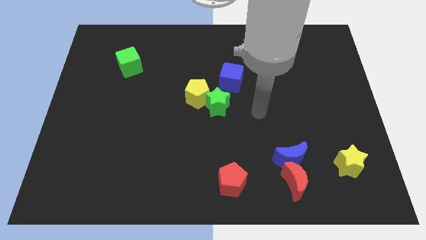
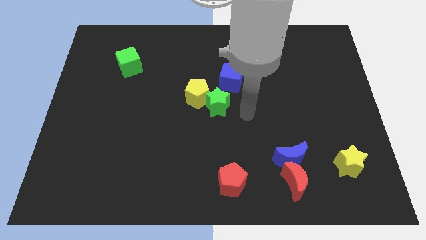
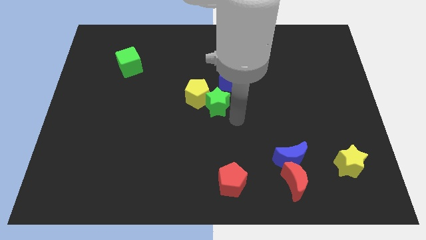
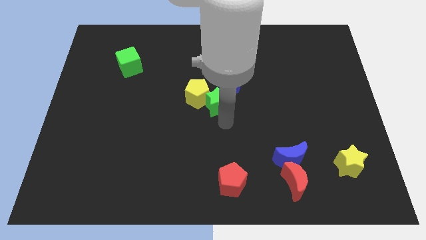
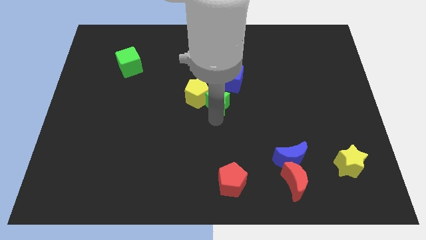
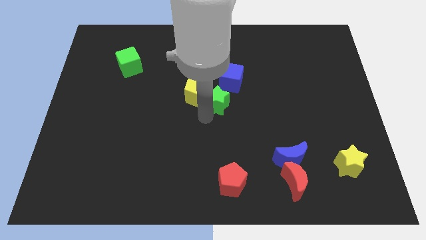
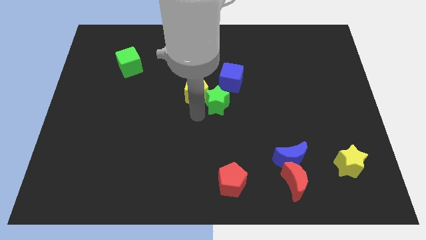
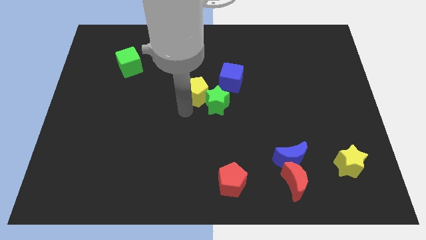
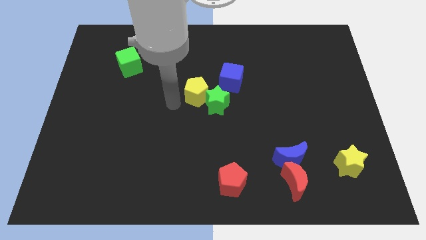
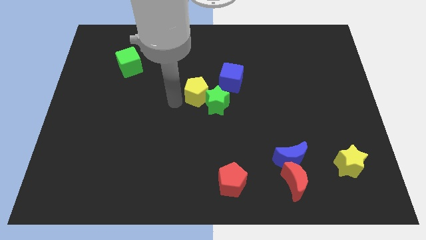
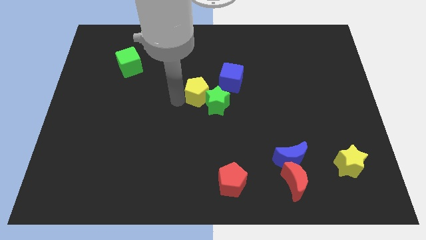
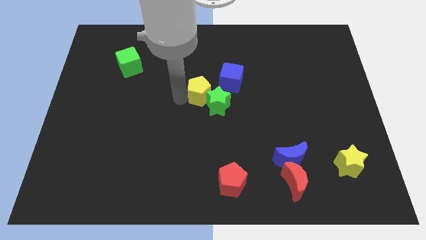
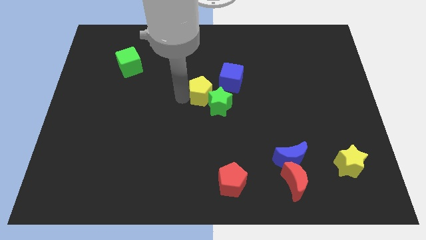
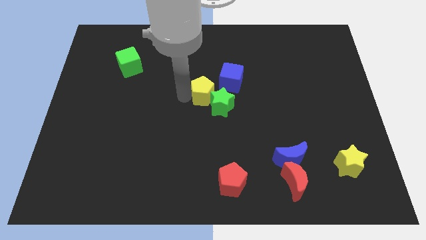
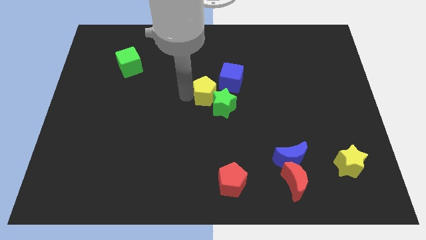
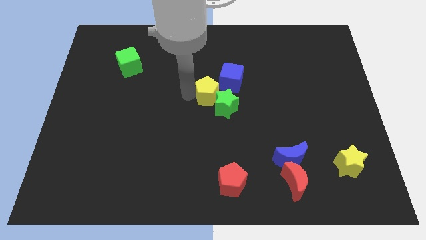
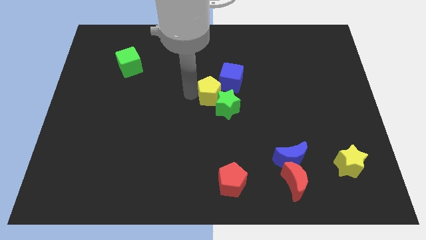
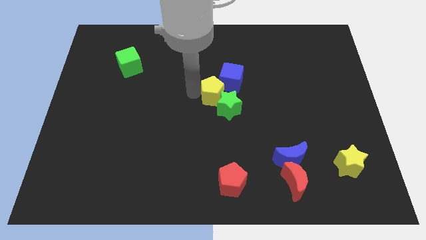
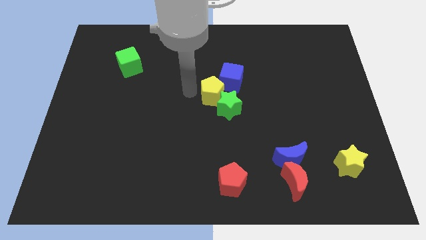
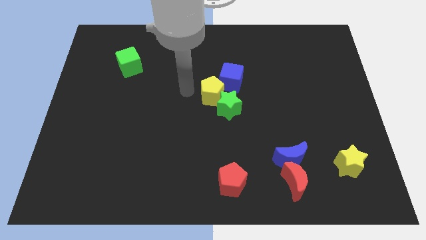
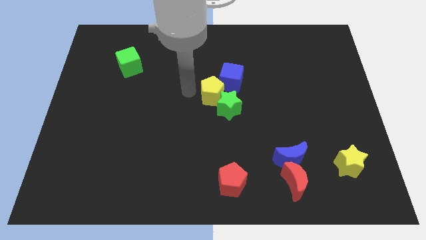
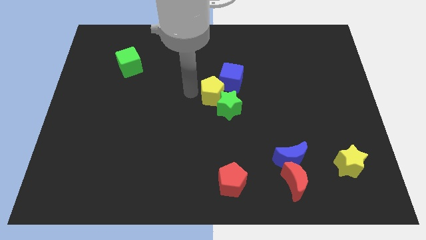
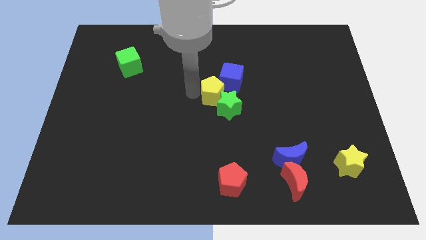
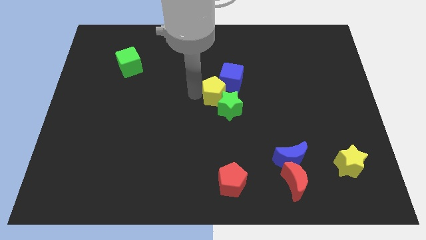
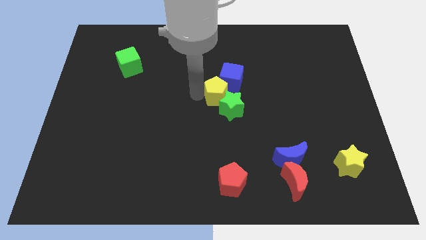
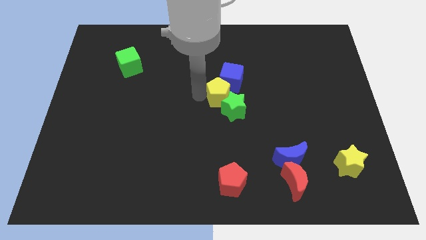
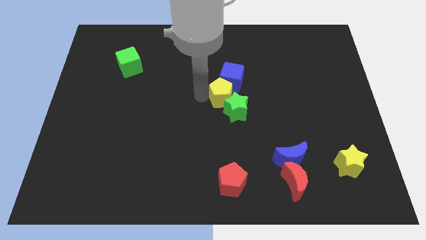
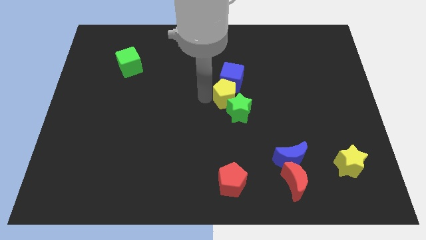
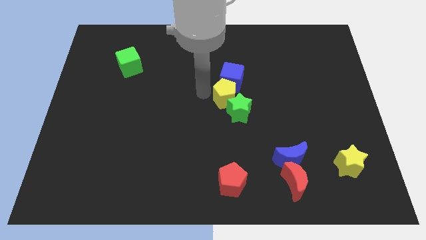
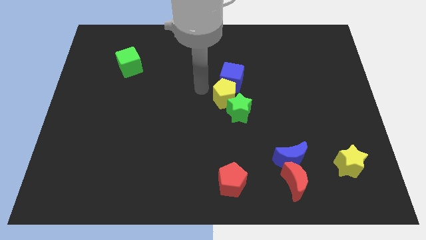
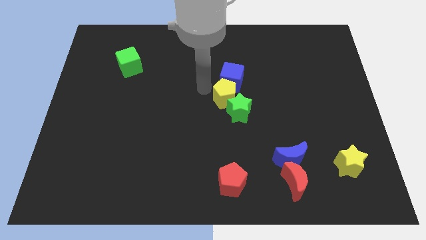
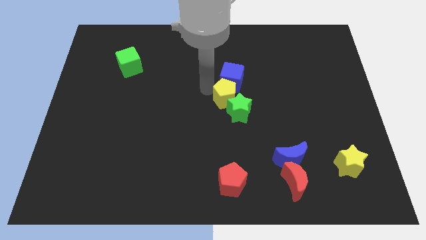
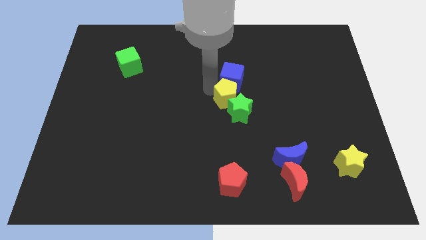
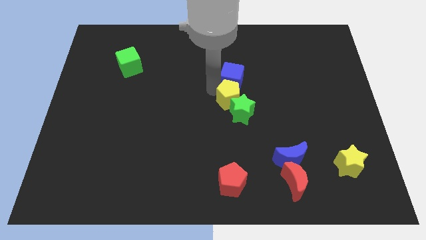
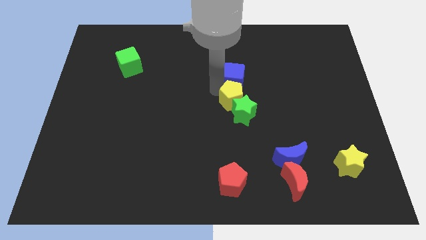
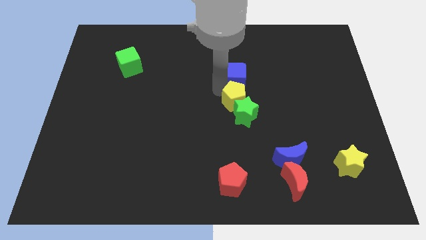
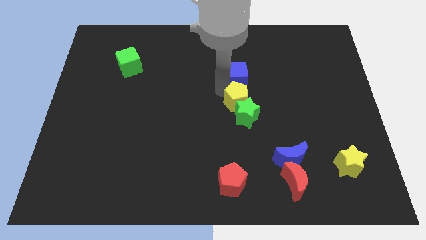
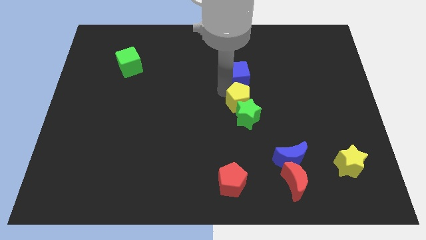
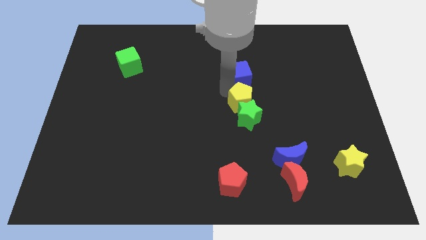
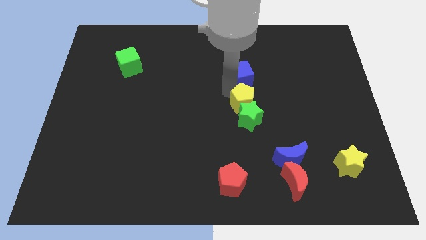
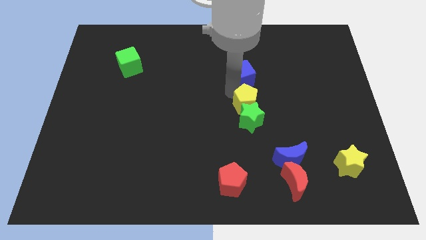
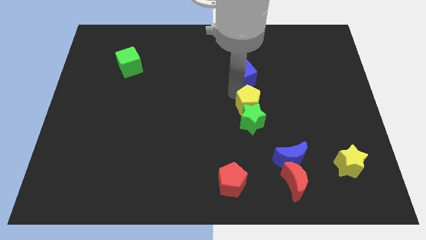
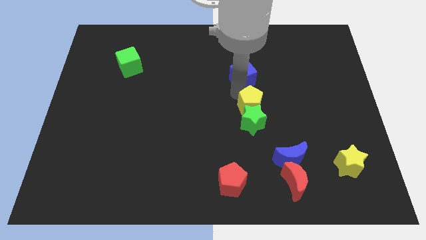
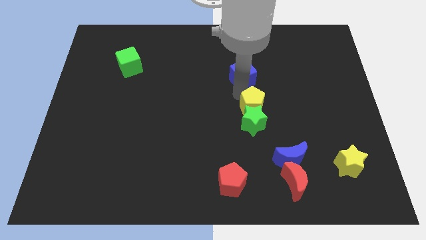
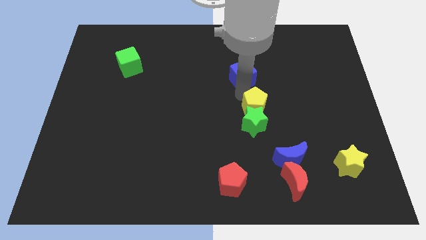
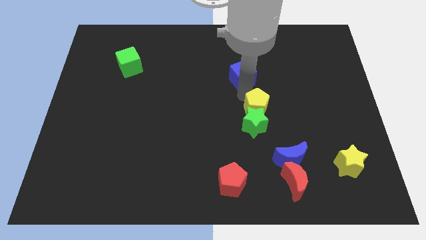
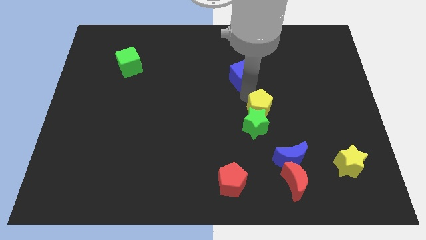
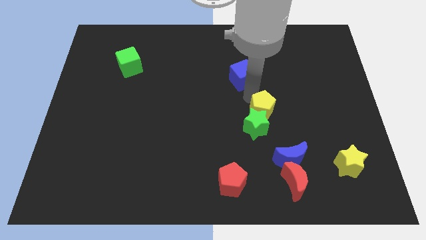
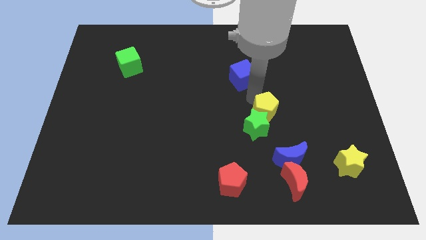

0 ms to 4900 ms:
push the yellow pentagon to the top of the blue moon

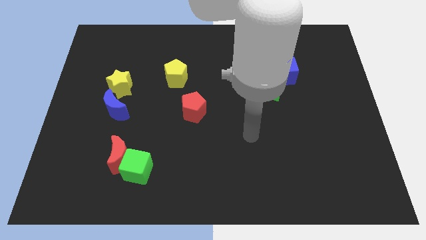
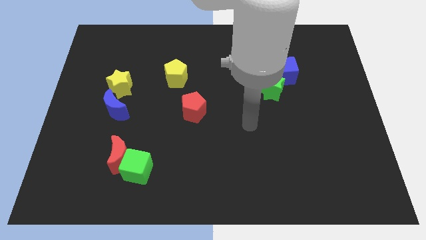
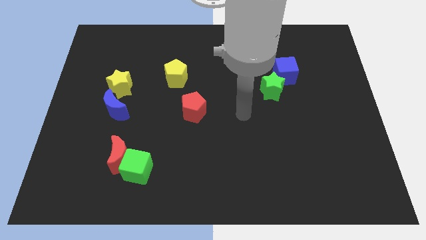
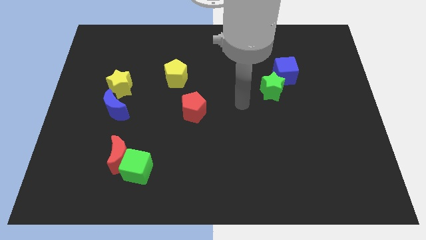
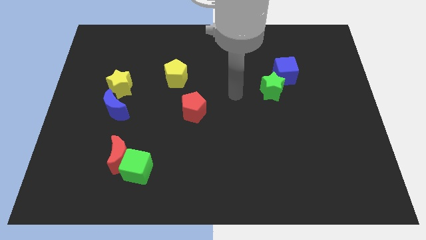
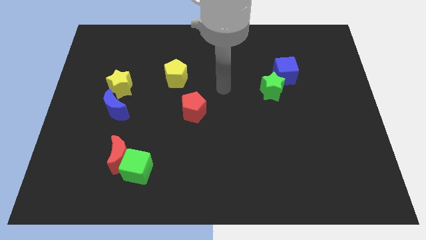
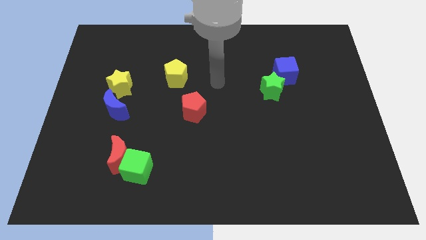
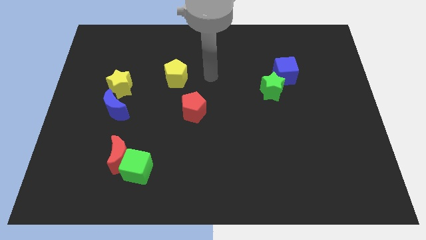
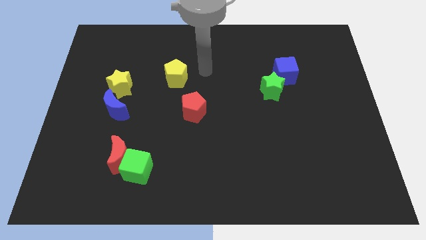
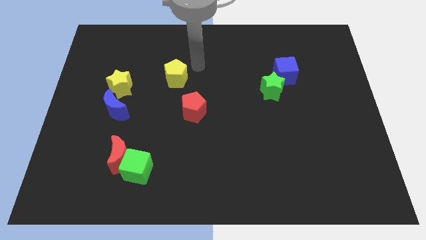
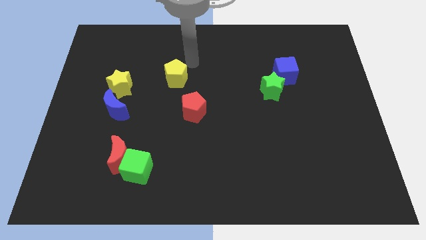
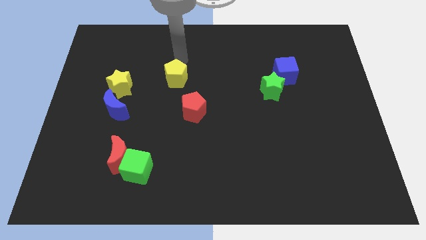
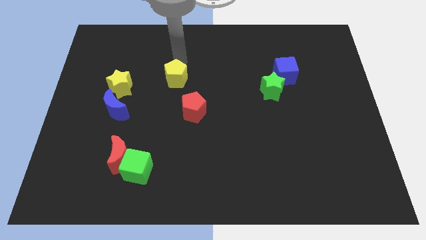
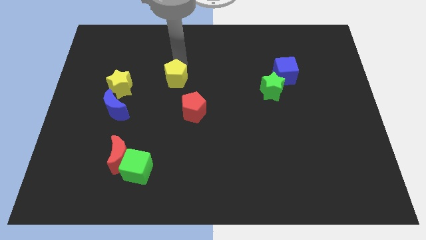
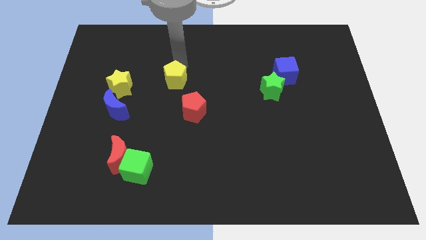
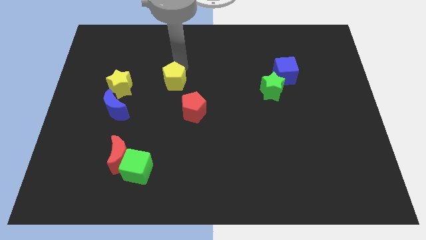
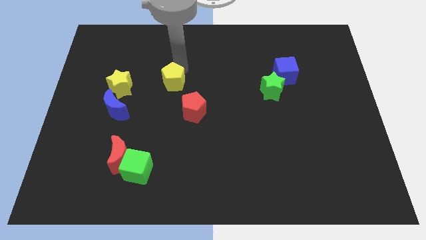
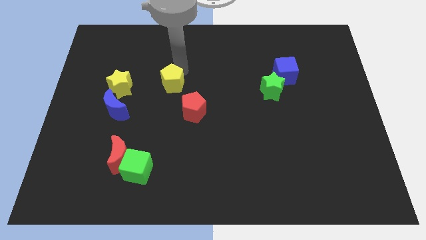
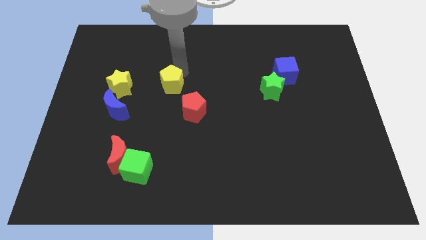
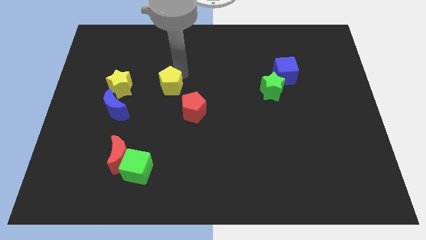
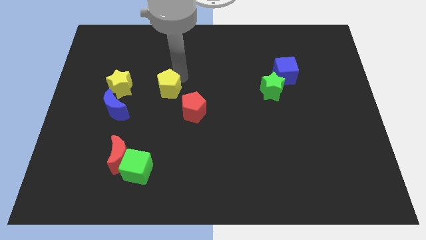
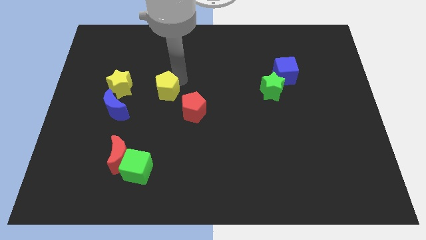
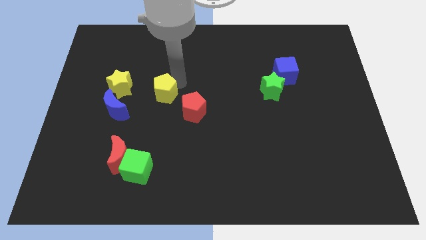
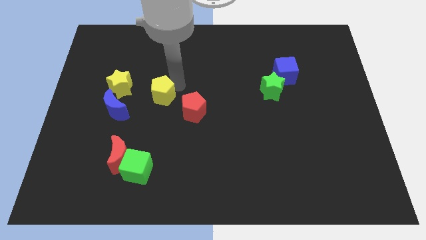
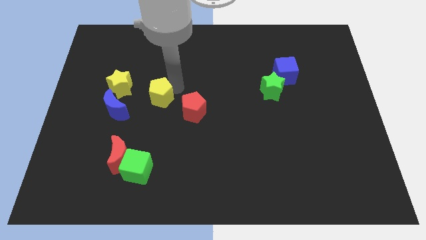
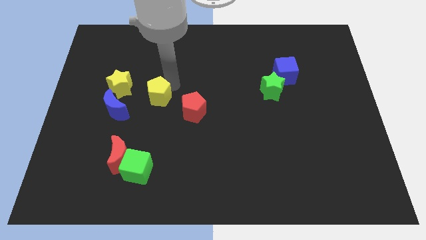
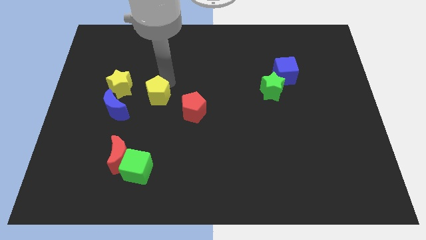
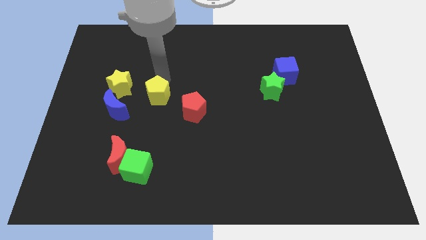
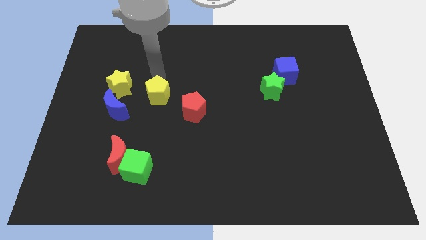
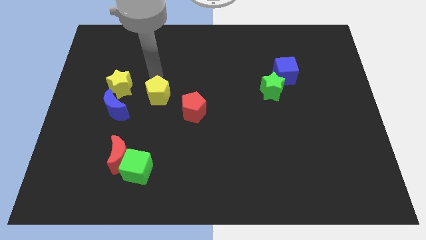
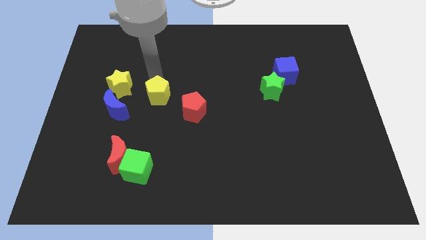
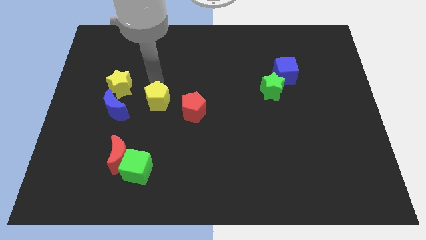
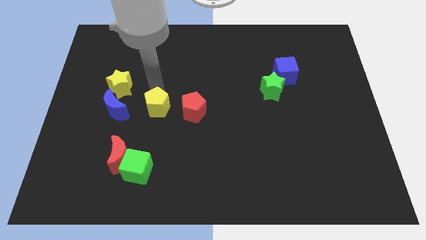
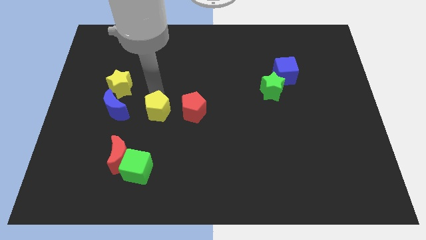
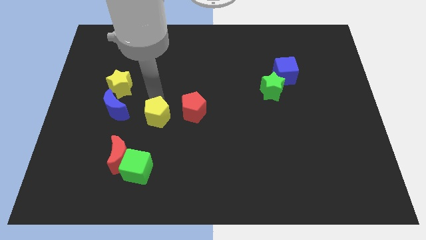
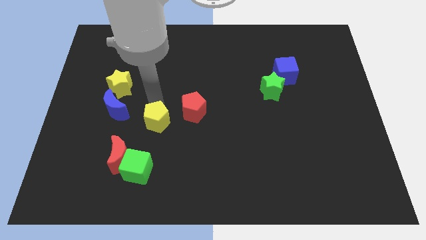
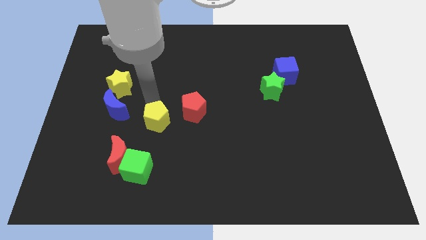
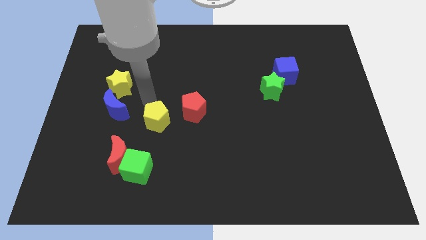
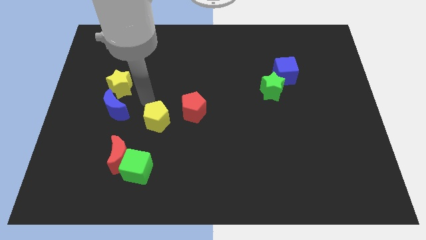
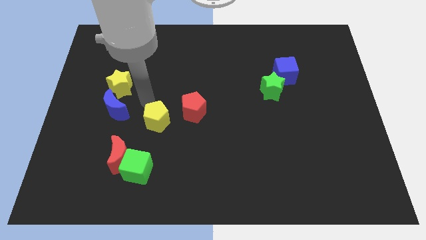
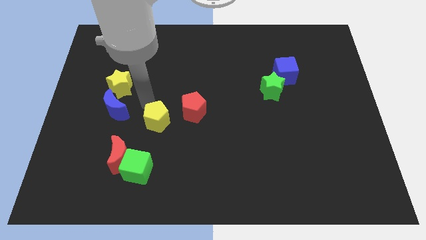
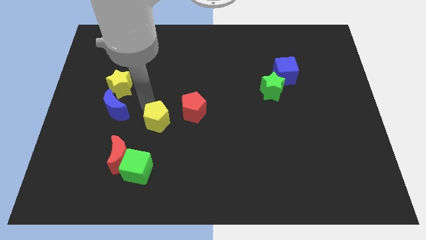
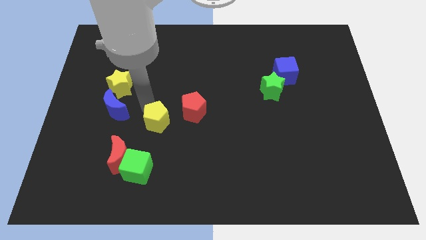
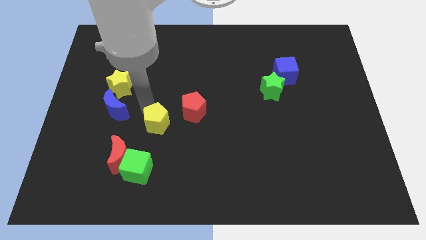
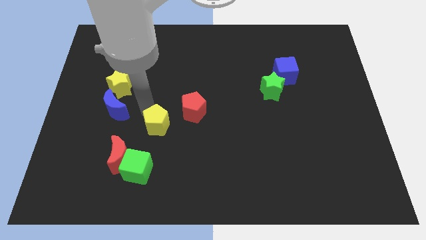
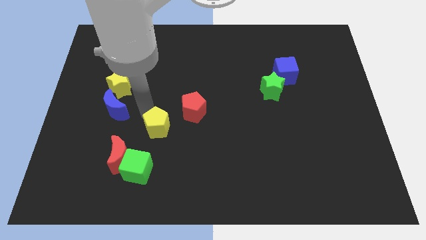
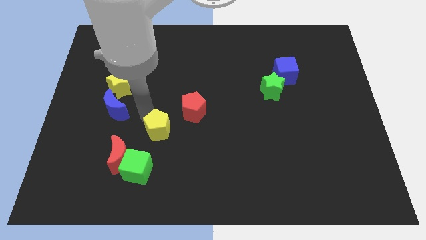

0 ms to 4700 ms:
slide the yellow pentagon diagonally up and to the right of the green cube
